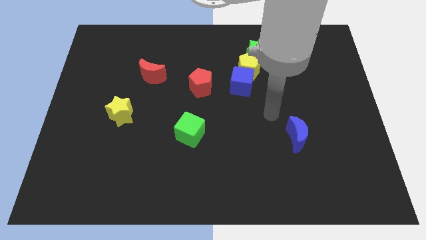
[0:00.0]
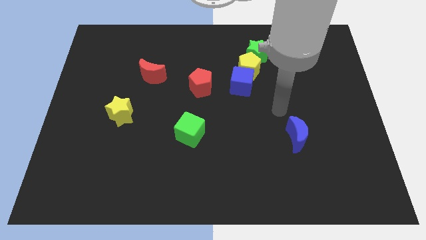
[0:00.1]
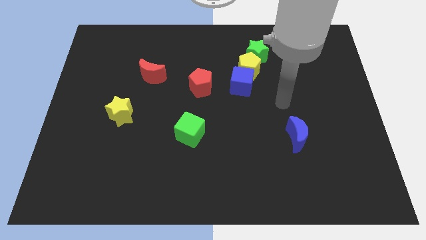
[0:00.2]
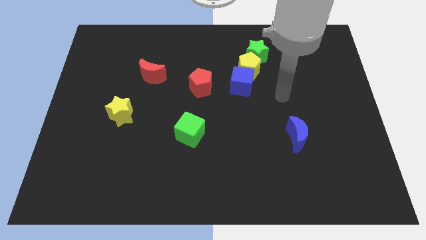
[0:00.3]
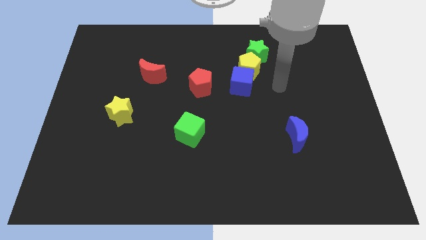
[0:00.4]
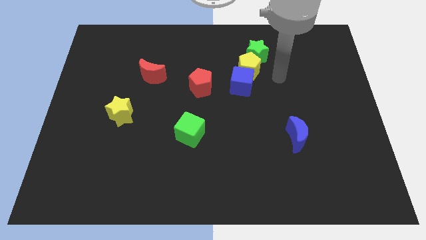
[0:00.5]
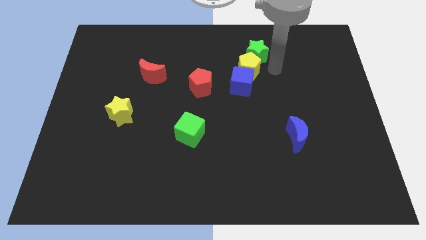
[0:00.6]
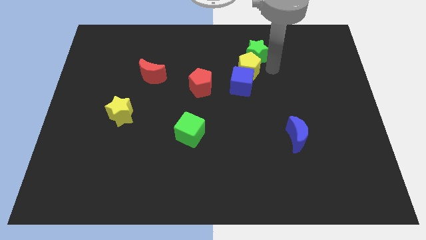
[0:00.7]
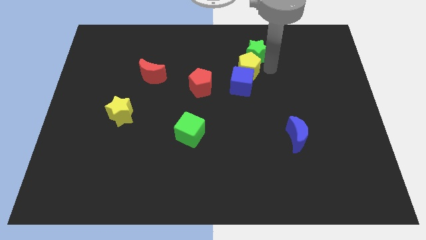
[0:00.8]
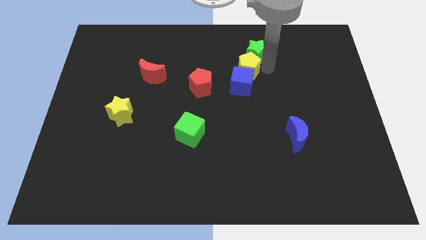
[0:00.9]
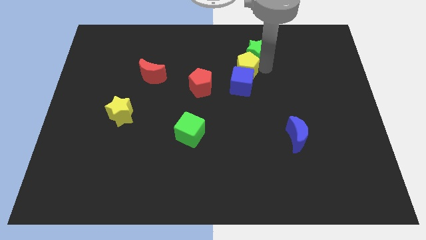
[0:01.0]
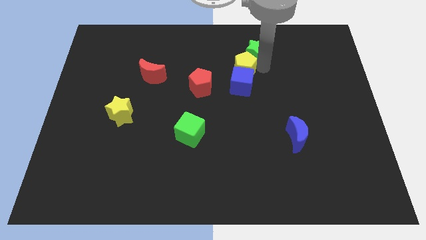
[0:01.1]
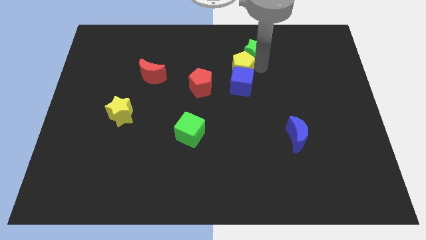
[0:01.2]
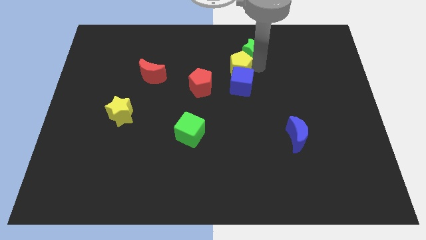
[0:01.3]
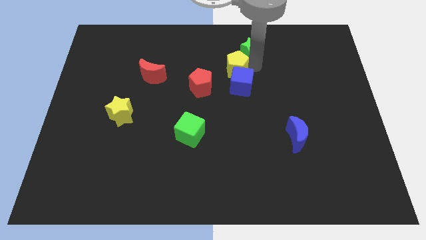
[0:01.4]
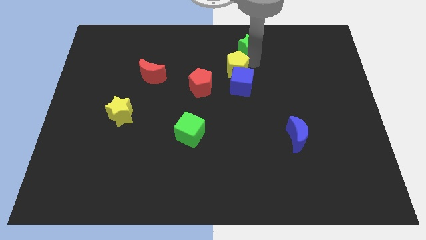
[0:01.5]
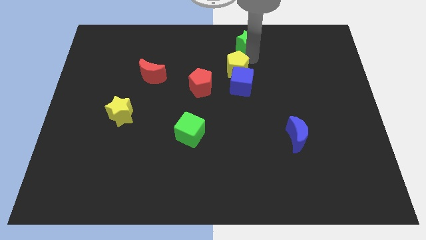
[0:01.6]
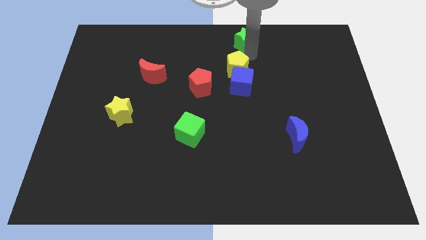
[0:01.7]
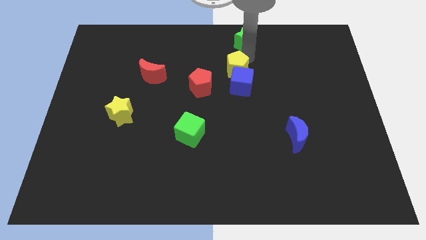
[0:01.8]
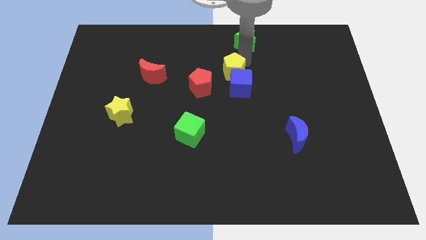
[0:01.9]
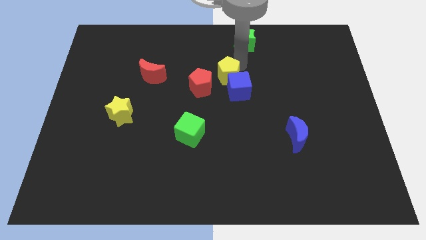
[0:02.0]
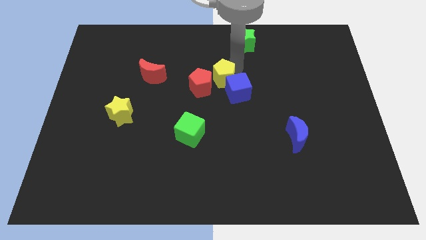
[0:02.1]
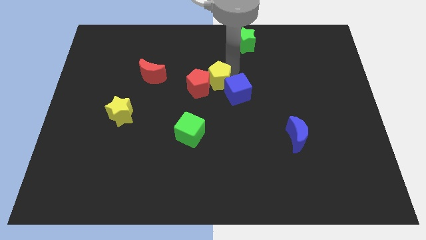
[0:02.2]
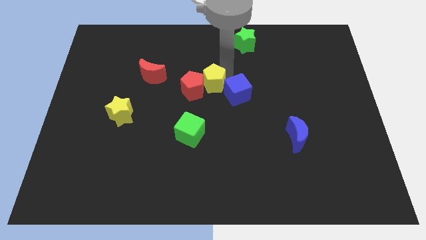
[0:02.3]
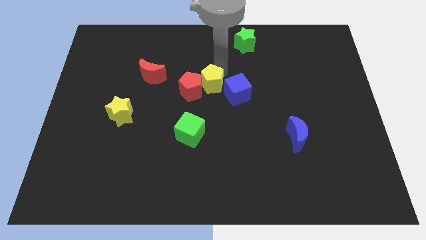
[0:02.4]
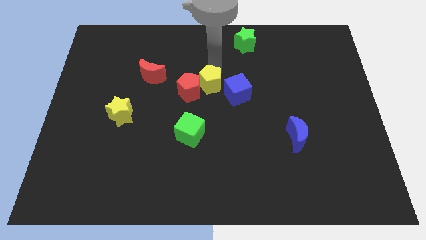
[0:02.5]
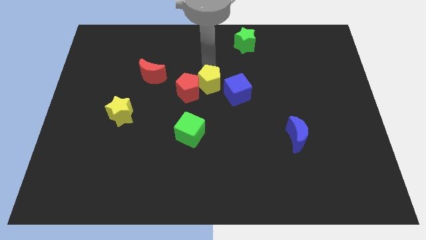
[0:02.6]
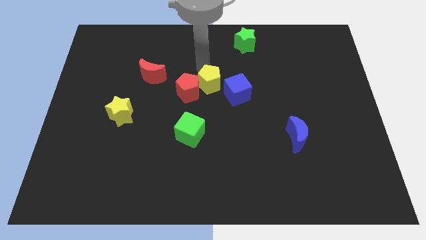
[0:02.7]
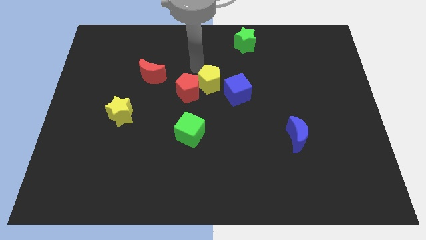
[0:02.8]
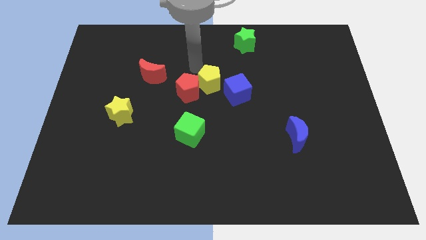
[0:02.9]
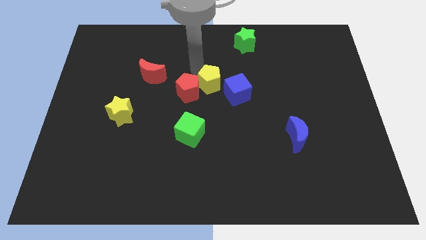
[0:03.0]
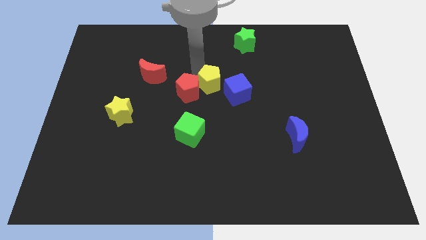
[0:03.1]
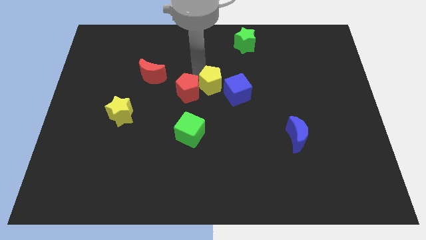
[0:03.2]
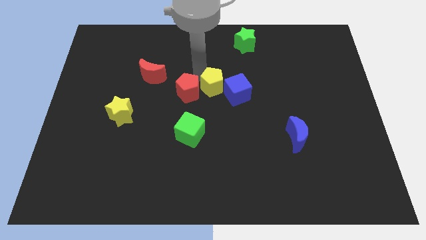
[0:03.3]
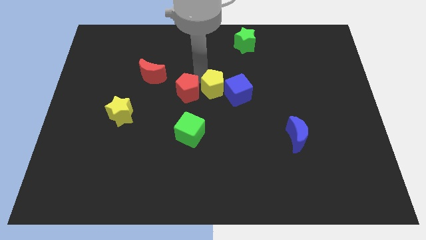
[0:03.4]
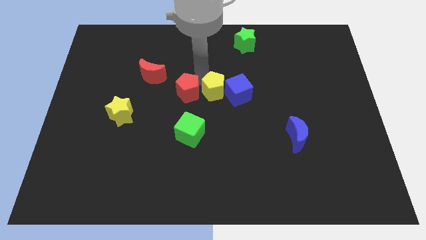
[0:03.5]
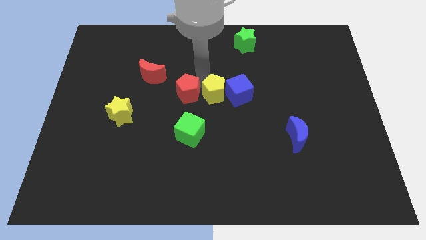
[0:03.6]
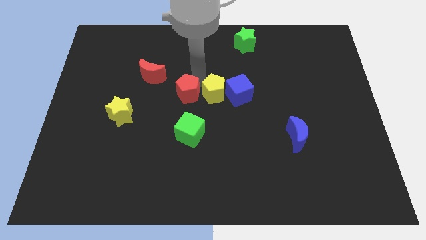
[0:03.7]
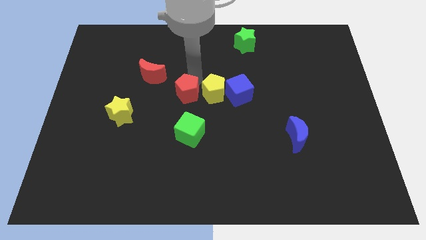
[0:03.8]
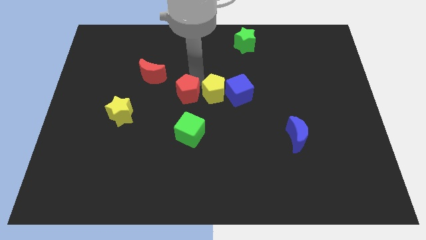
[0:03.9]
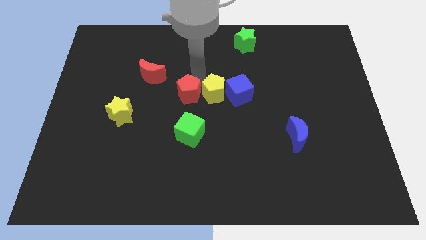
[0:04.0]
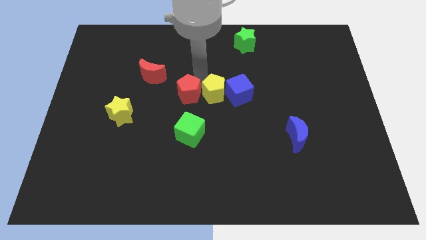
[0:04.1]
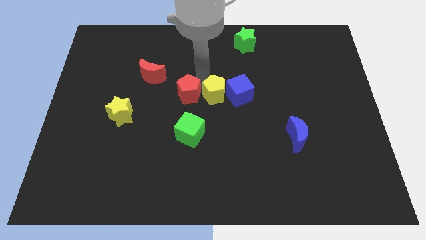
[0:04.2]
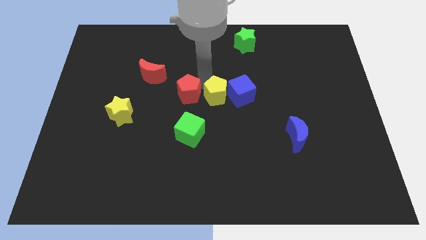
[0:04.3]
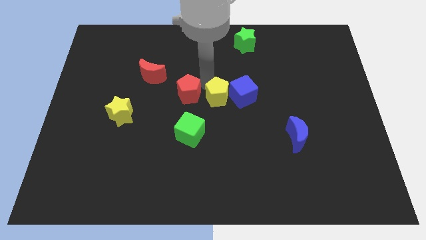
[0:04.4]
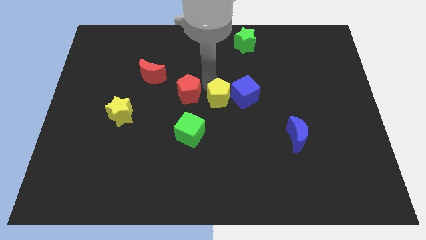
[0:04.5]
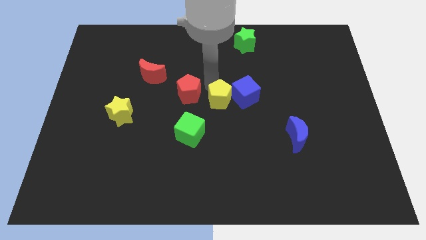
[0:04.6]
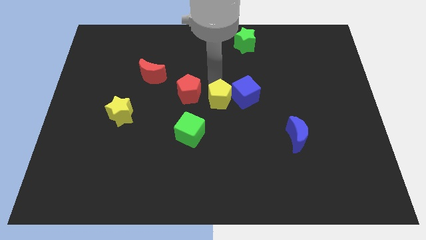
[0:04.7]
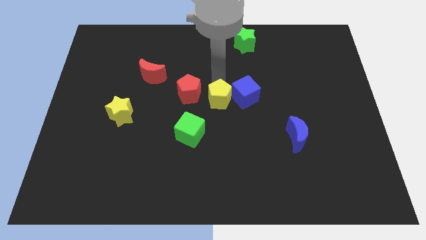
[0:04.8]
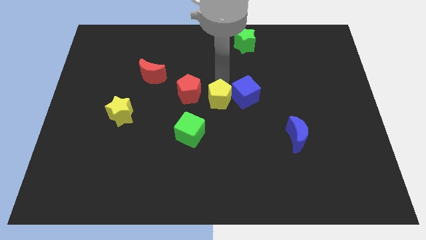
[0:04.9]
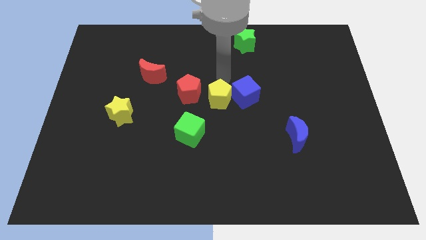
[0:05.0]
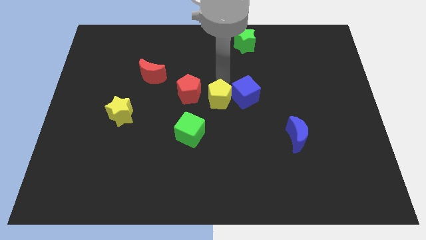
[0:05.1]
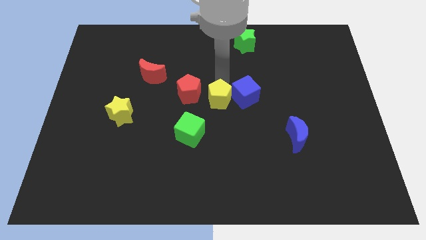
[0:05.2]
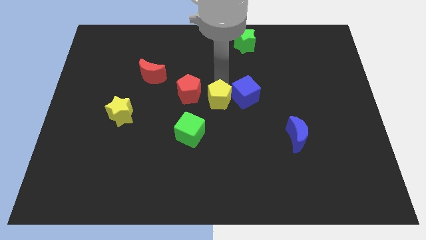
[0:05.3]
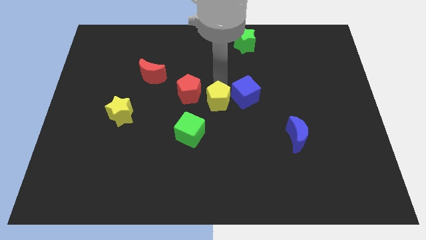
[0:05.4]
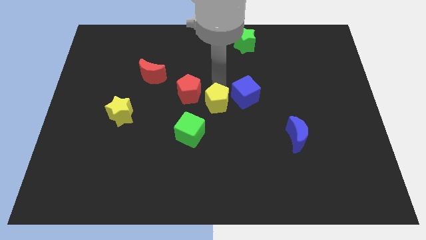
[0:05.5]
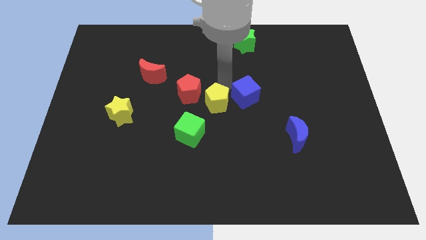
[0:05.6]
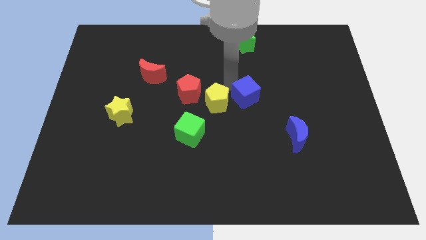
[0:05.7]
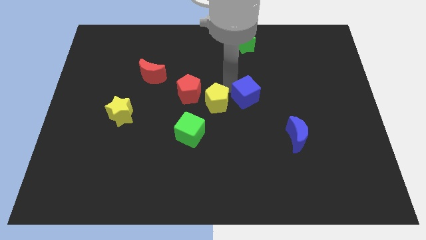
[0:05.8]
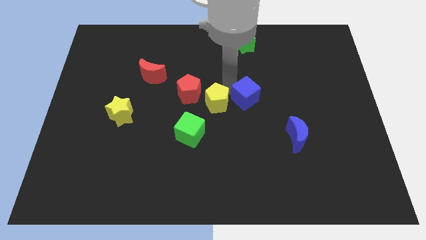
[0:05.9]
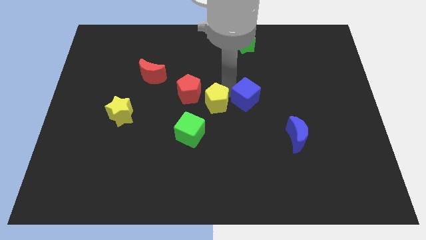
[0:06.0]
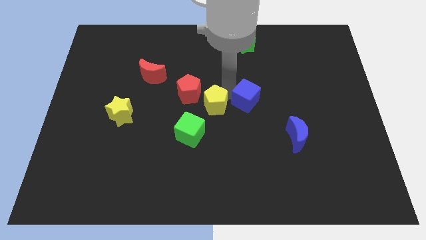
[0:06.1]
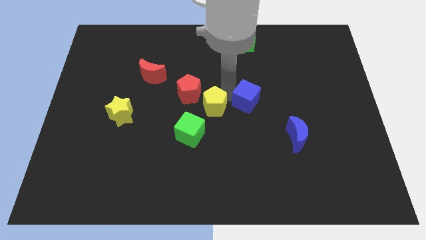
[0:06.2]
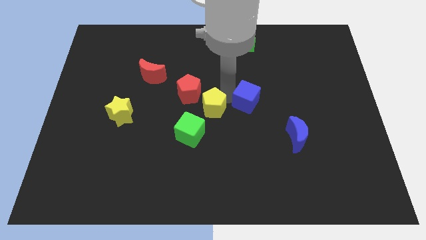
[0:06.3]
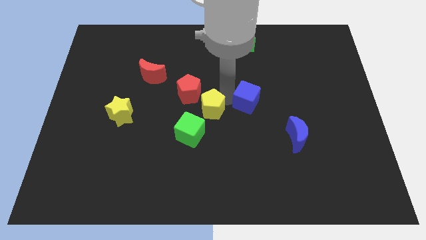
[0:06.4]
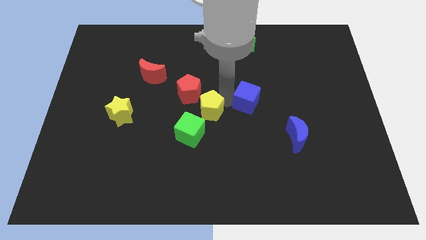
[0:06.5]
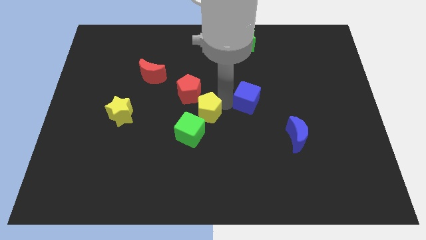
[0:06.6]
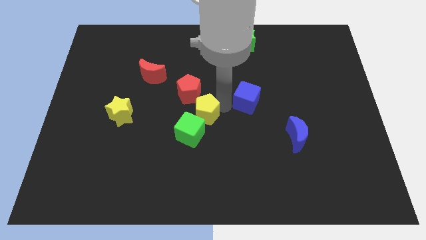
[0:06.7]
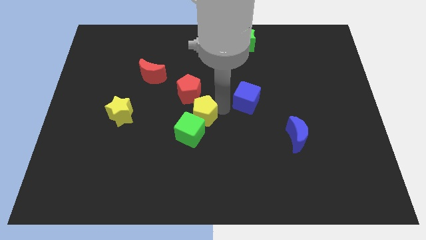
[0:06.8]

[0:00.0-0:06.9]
move the yellow pentagon next to the green cube

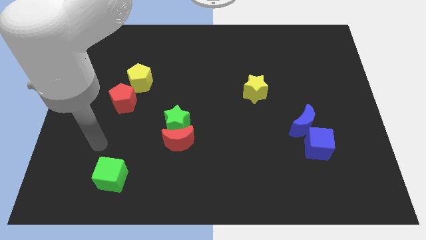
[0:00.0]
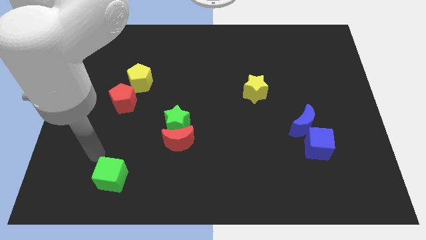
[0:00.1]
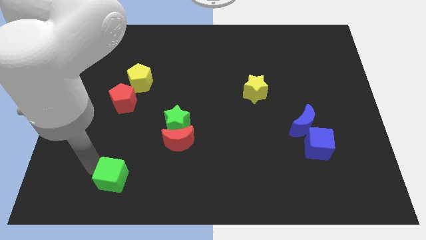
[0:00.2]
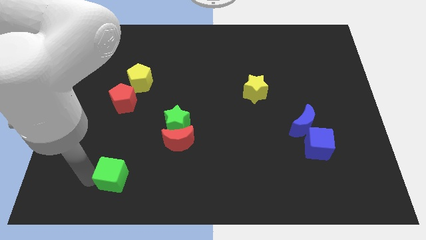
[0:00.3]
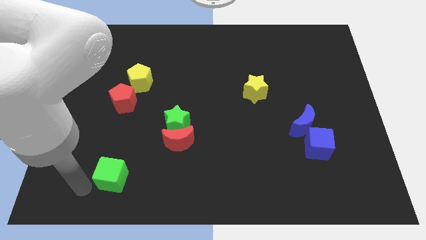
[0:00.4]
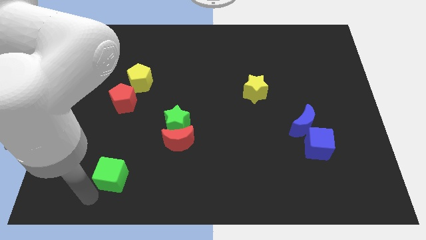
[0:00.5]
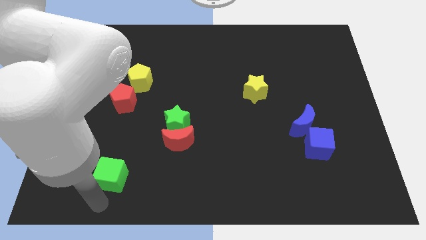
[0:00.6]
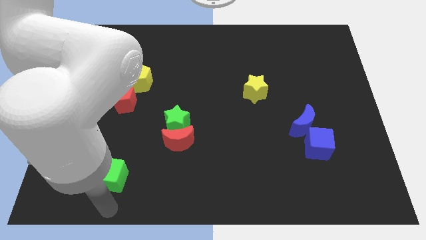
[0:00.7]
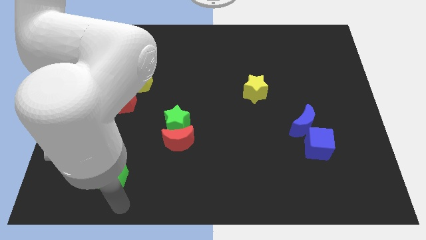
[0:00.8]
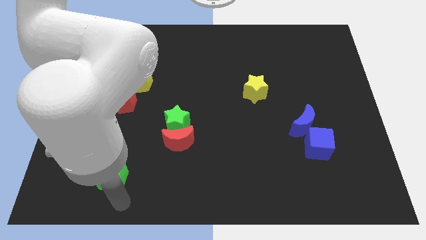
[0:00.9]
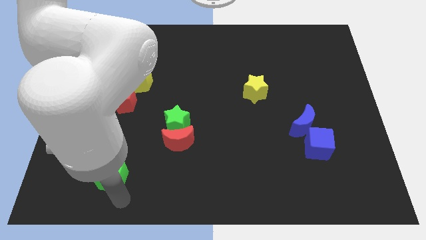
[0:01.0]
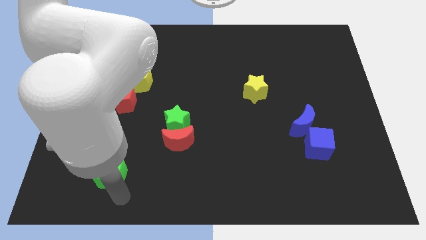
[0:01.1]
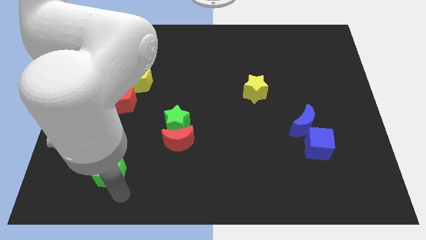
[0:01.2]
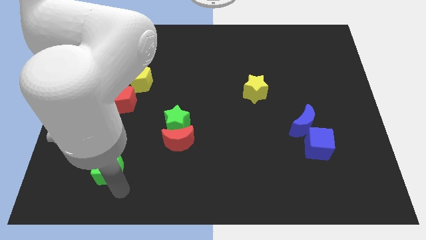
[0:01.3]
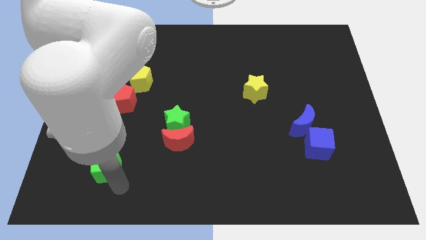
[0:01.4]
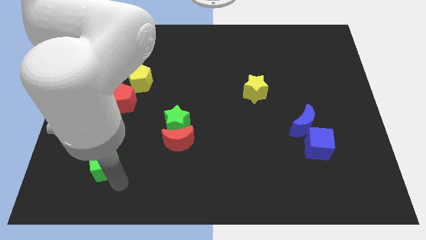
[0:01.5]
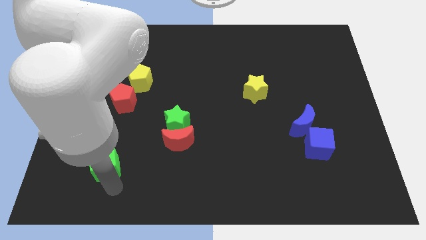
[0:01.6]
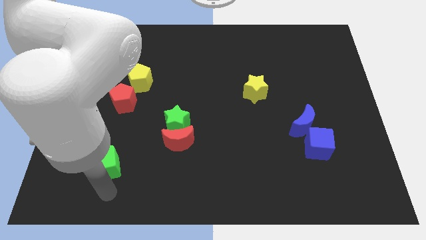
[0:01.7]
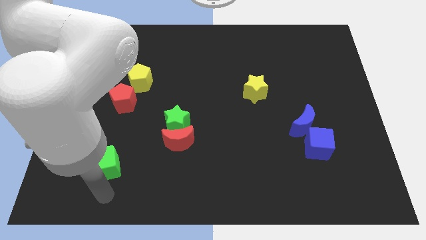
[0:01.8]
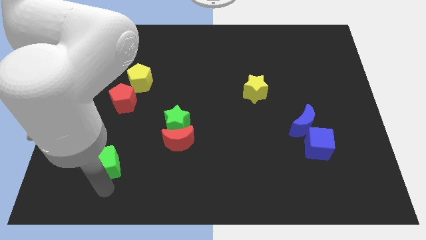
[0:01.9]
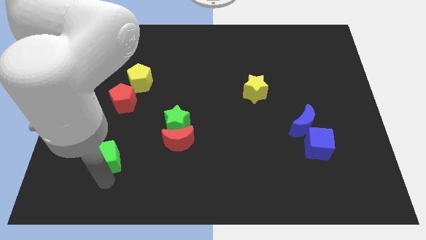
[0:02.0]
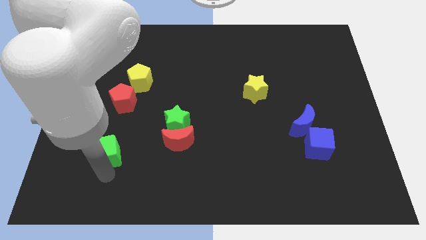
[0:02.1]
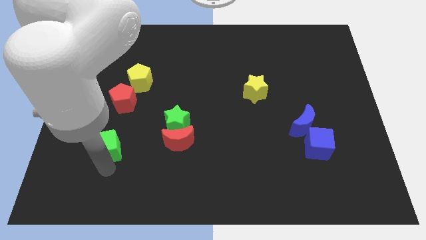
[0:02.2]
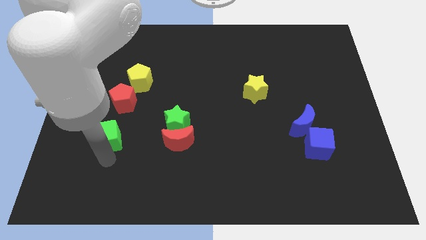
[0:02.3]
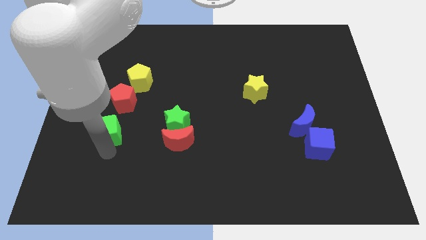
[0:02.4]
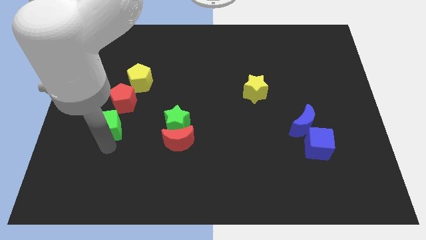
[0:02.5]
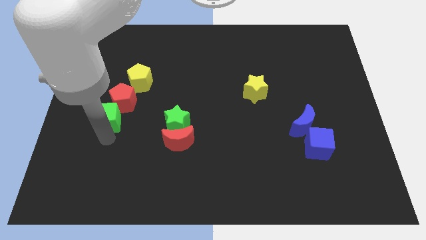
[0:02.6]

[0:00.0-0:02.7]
put the green cube towards the red pentagon
